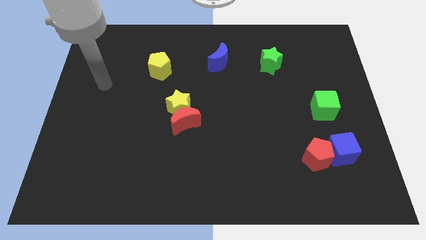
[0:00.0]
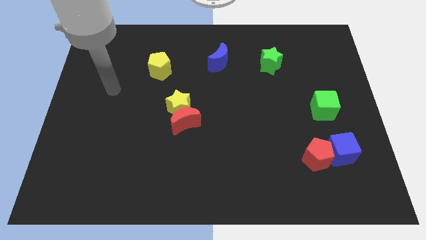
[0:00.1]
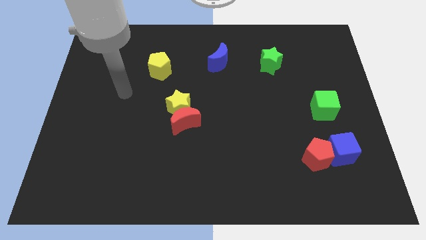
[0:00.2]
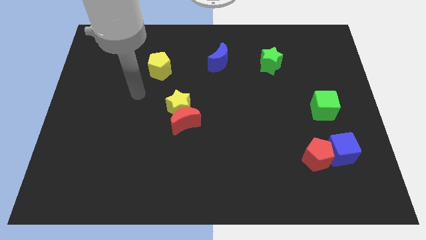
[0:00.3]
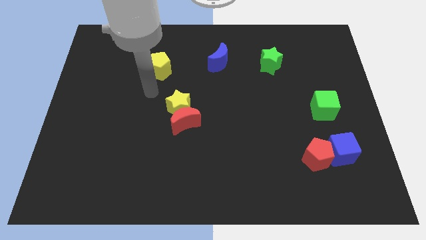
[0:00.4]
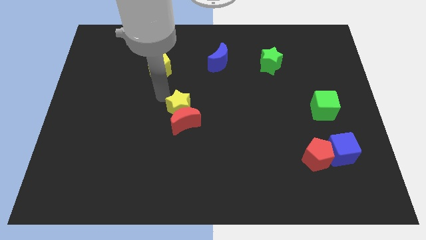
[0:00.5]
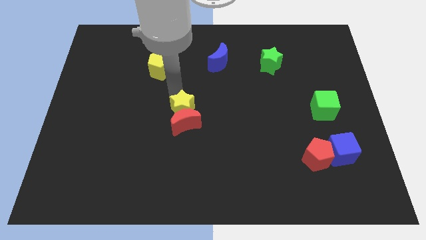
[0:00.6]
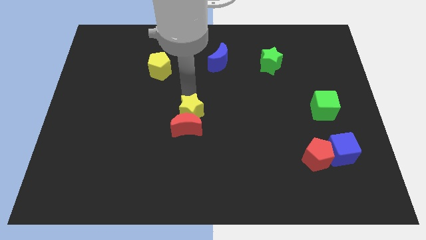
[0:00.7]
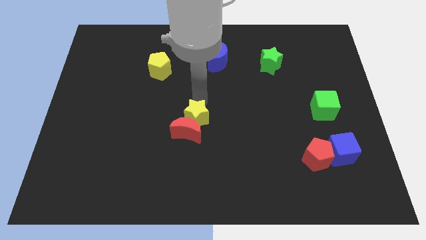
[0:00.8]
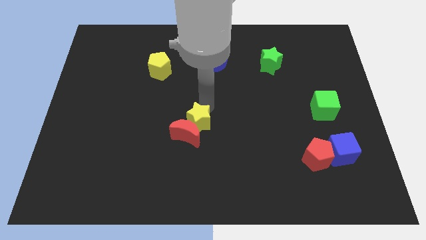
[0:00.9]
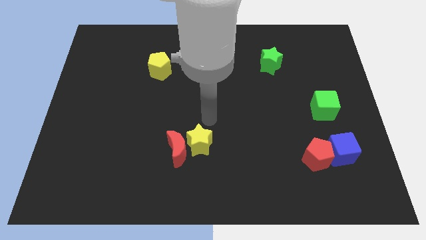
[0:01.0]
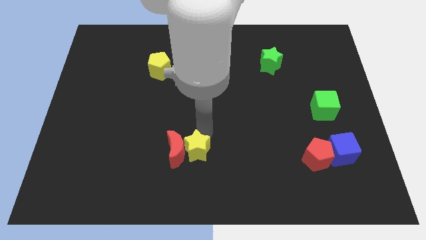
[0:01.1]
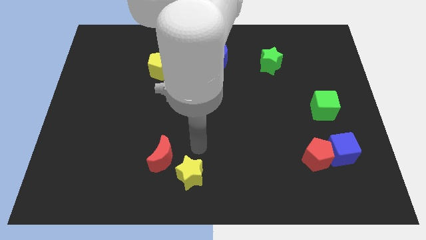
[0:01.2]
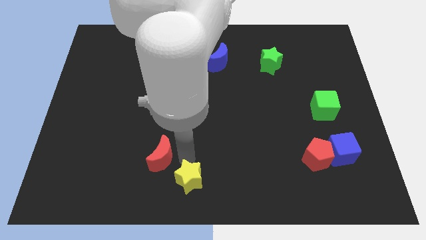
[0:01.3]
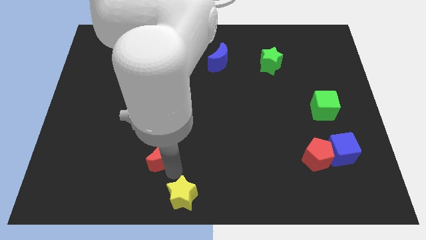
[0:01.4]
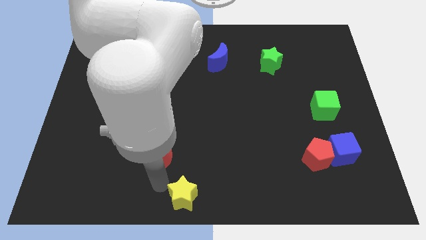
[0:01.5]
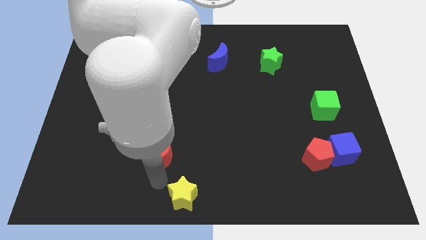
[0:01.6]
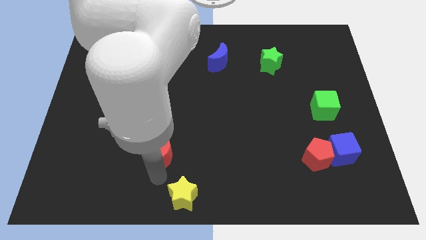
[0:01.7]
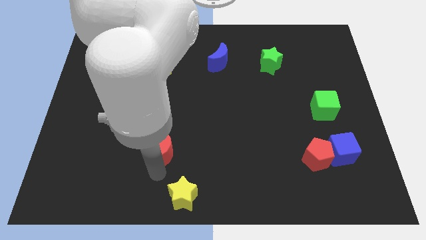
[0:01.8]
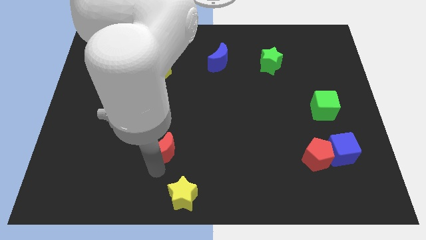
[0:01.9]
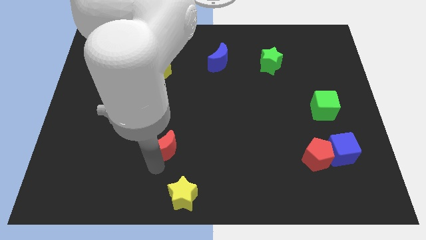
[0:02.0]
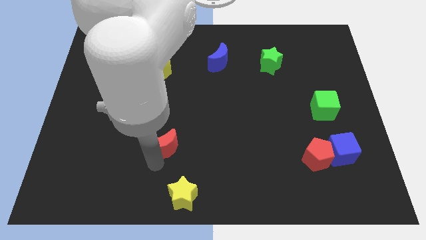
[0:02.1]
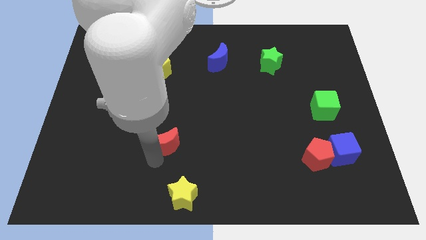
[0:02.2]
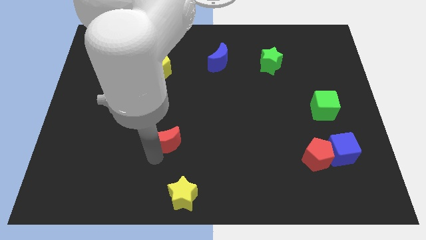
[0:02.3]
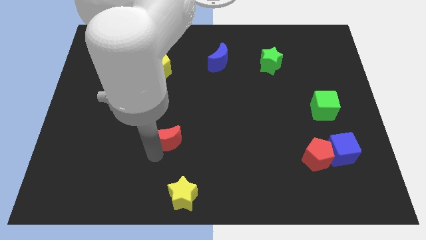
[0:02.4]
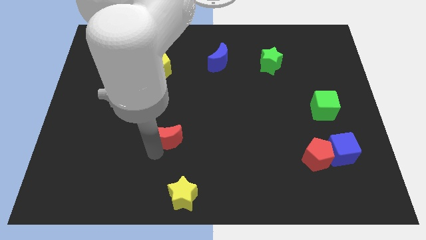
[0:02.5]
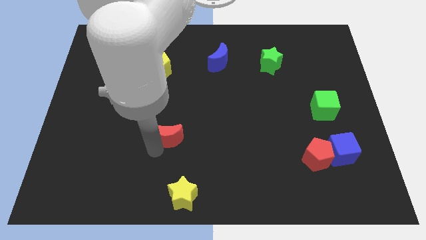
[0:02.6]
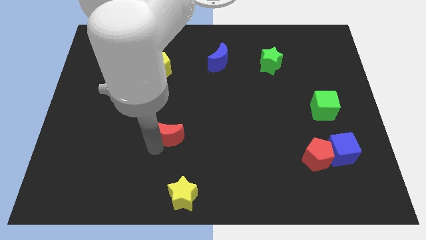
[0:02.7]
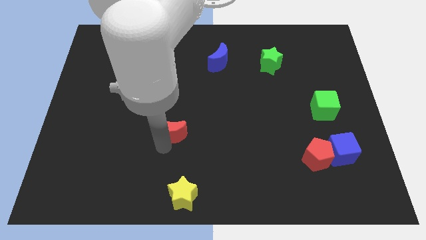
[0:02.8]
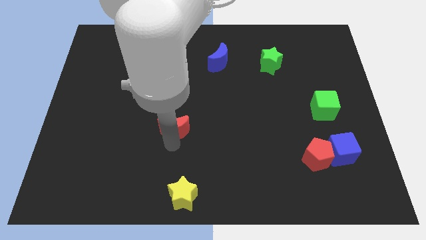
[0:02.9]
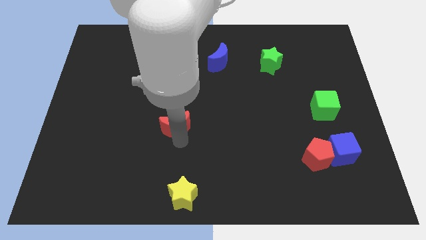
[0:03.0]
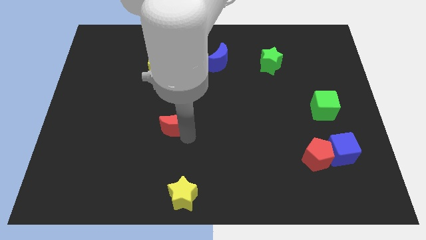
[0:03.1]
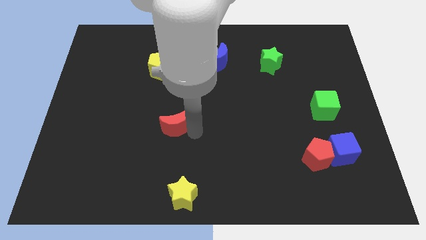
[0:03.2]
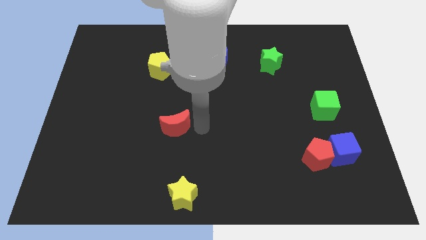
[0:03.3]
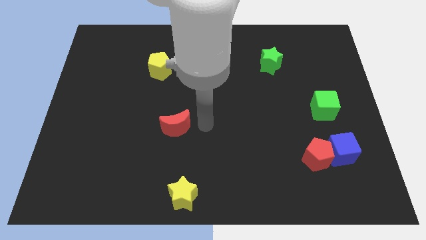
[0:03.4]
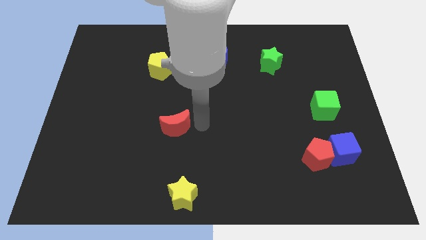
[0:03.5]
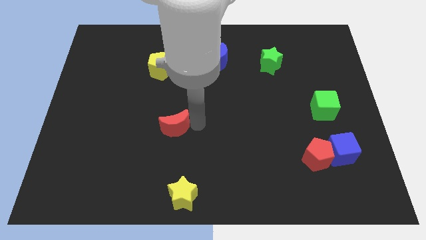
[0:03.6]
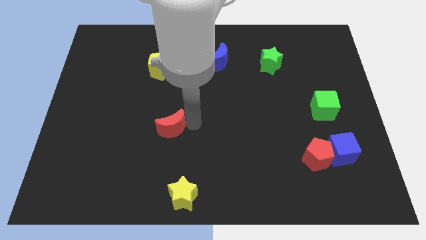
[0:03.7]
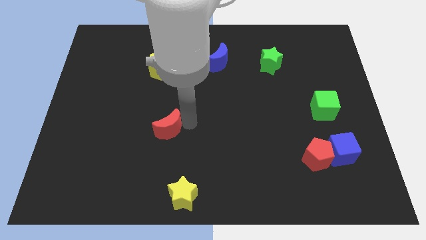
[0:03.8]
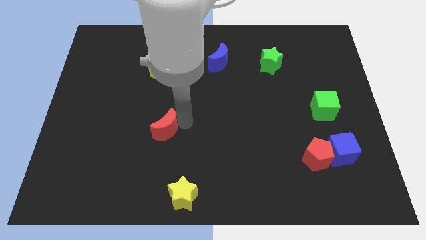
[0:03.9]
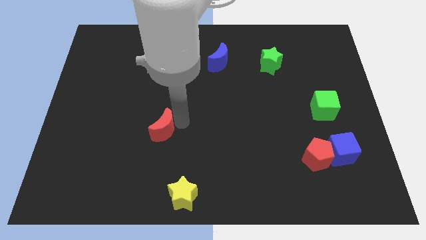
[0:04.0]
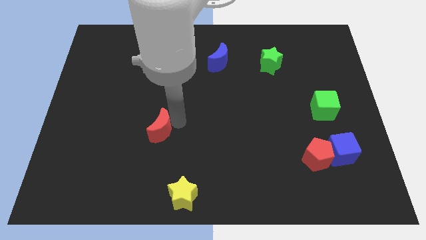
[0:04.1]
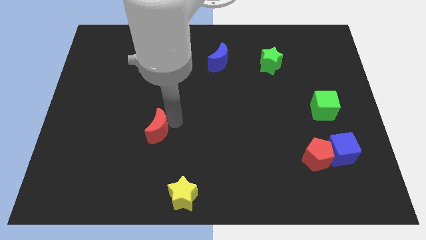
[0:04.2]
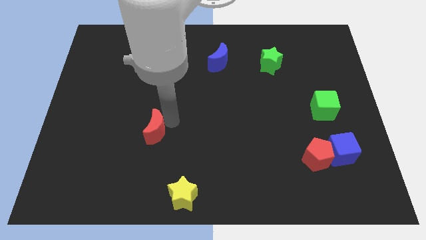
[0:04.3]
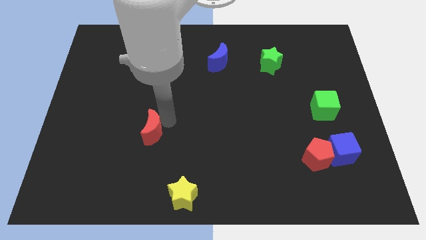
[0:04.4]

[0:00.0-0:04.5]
move the red moon a little to the left

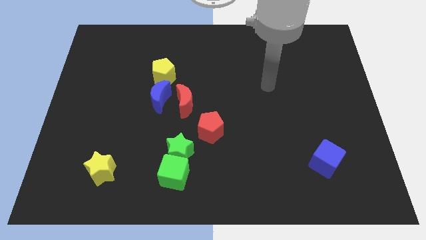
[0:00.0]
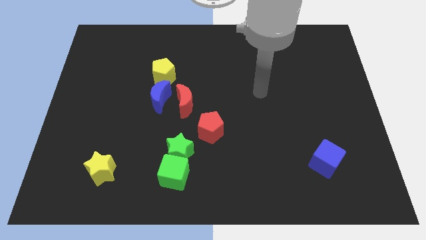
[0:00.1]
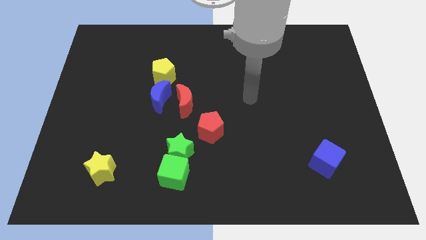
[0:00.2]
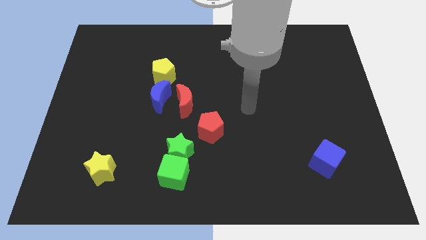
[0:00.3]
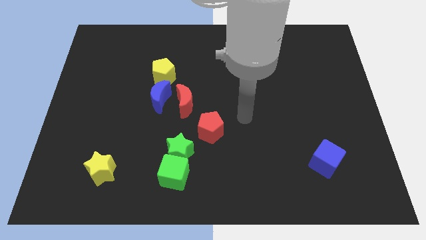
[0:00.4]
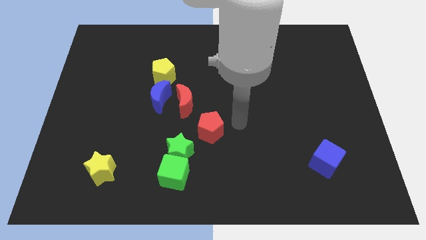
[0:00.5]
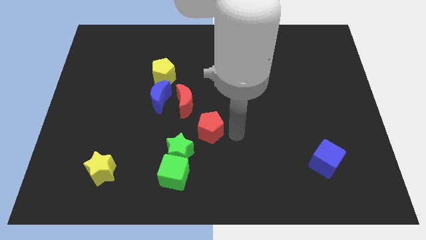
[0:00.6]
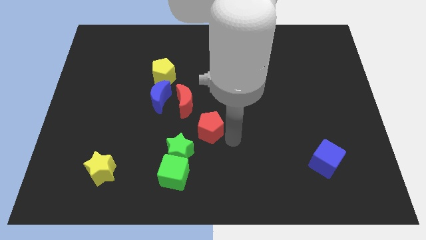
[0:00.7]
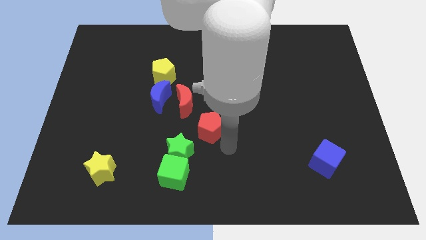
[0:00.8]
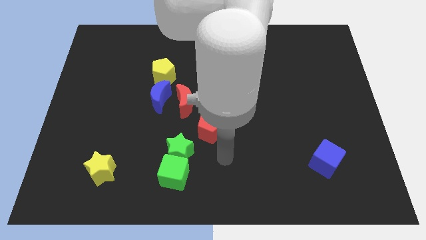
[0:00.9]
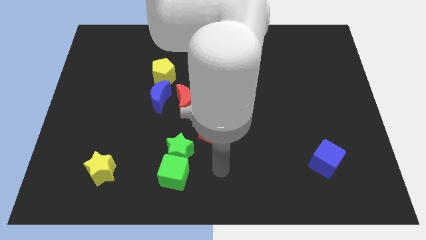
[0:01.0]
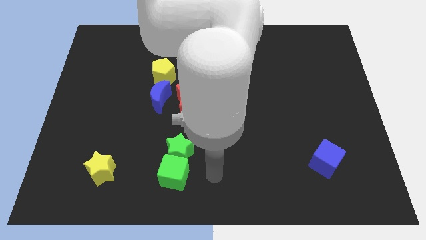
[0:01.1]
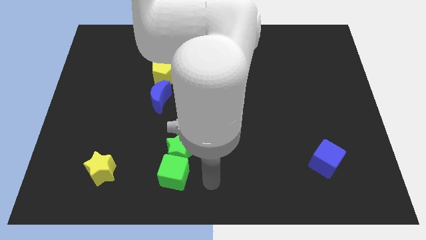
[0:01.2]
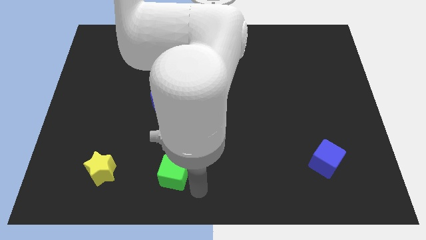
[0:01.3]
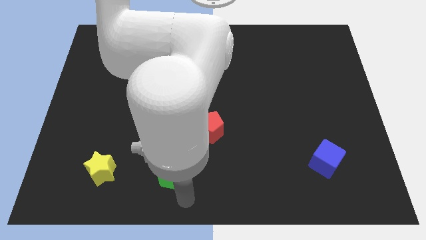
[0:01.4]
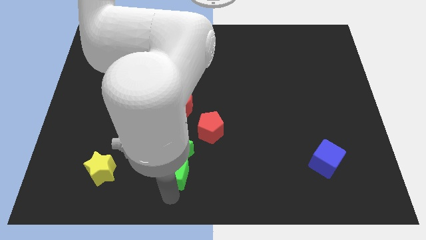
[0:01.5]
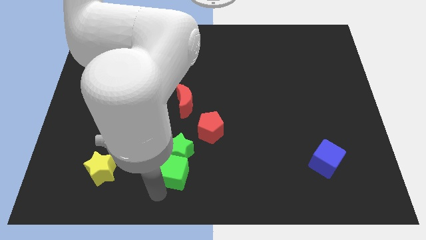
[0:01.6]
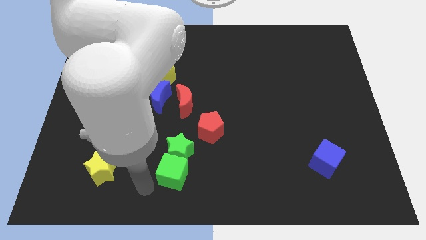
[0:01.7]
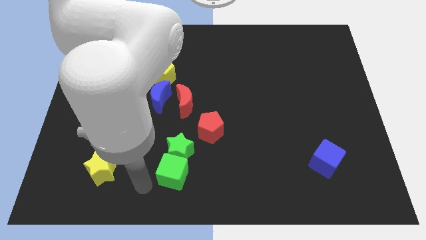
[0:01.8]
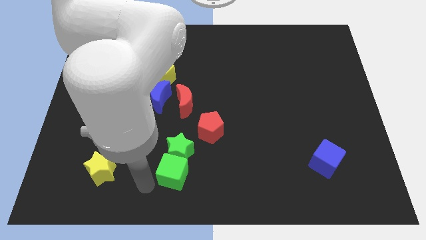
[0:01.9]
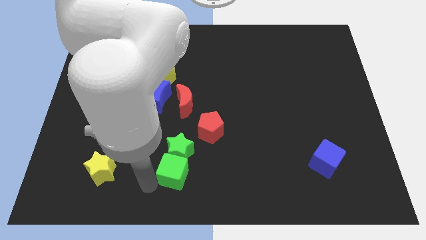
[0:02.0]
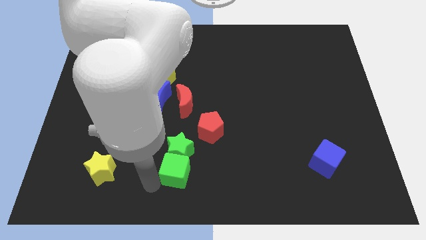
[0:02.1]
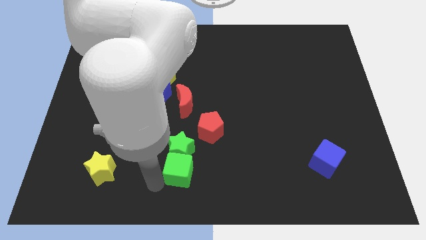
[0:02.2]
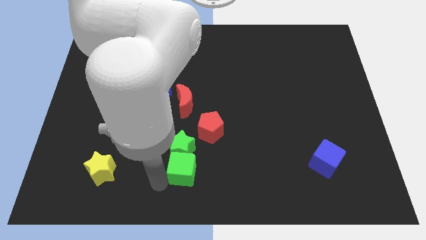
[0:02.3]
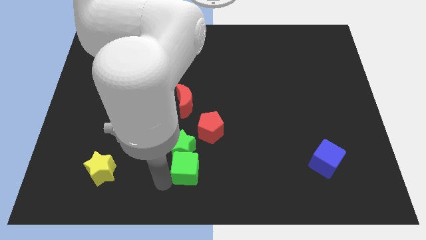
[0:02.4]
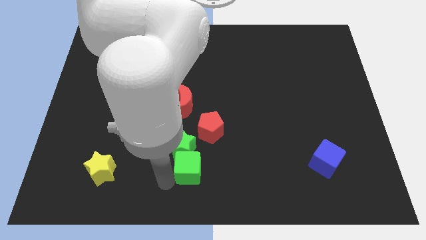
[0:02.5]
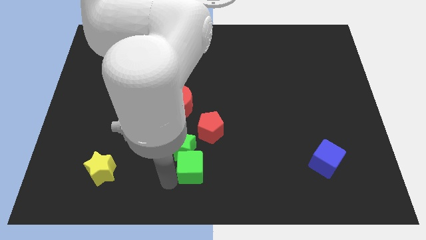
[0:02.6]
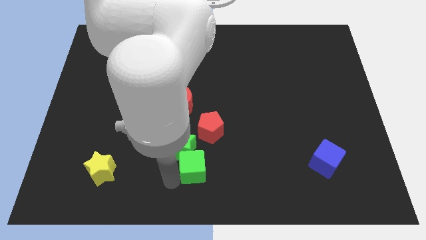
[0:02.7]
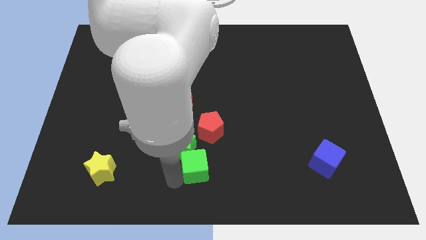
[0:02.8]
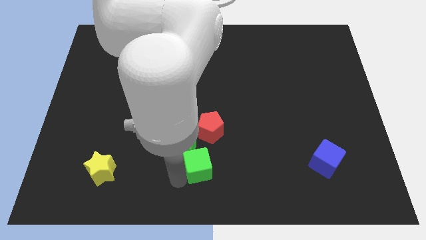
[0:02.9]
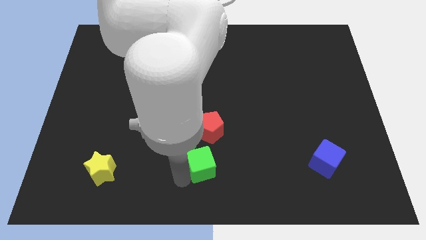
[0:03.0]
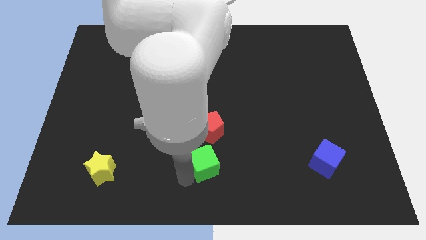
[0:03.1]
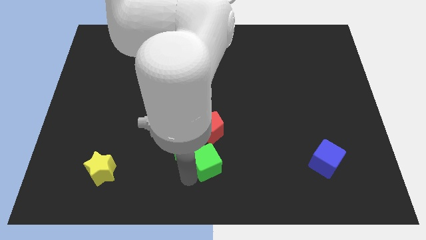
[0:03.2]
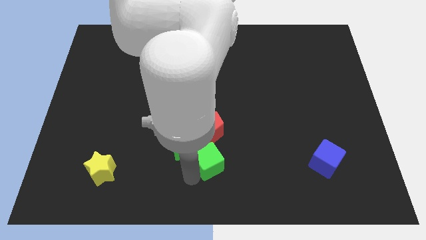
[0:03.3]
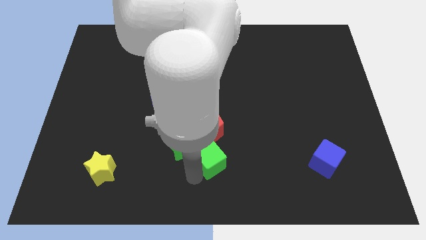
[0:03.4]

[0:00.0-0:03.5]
move the green cube diagonally upwards and to the right a bit

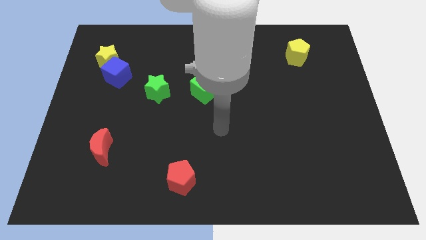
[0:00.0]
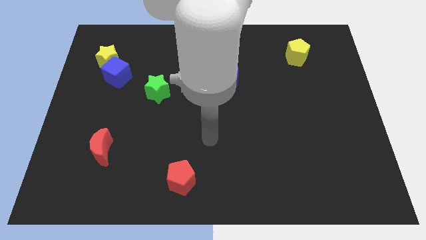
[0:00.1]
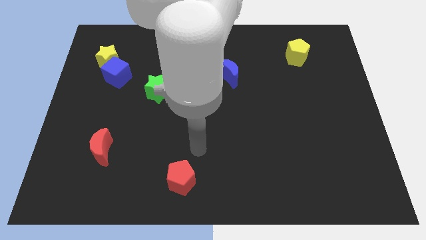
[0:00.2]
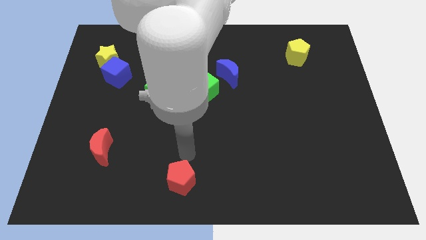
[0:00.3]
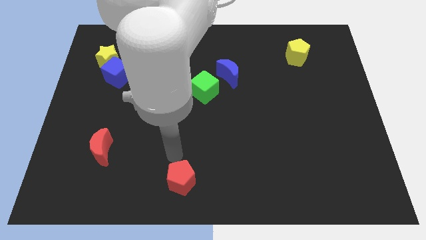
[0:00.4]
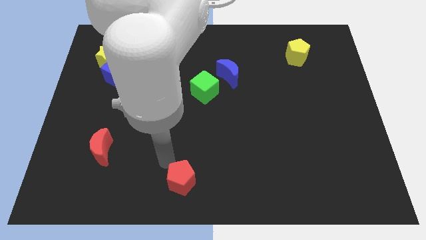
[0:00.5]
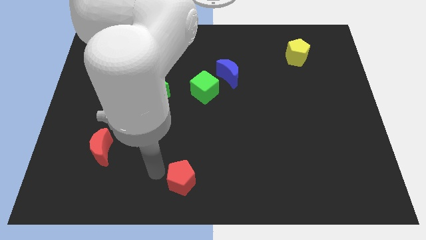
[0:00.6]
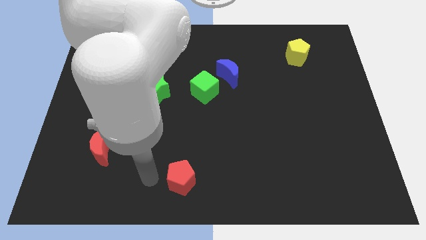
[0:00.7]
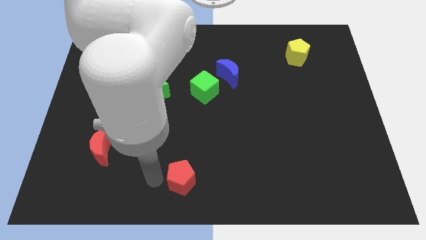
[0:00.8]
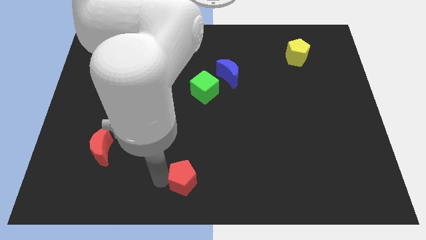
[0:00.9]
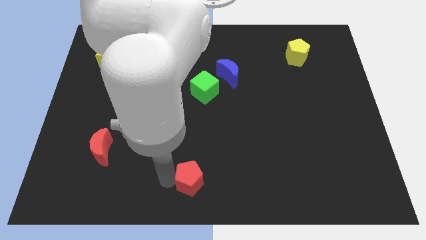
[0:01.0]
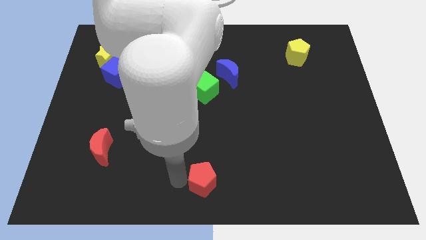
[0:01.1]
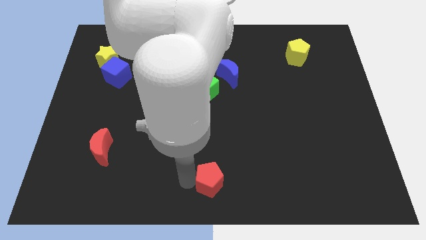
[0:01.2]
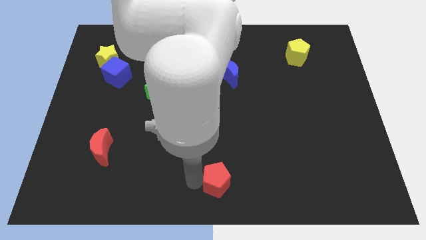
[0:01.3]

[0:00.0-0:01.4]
move the red pentagon a bit right
